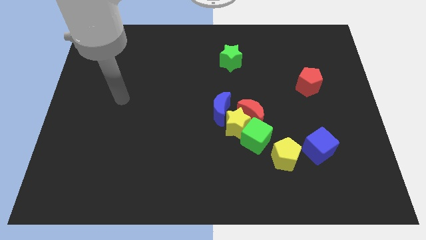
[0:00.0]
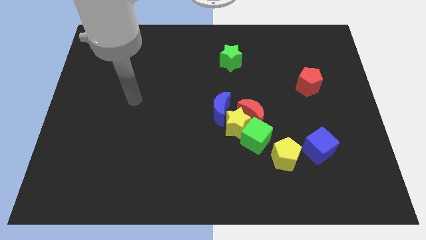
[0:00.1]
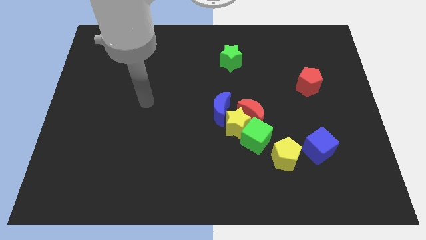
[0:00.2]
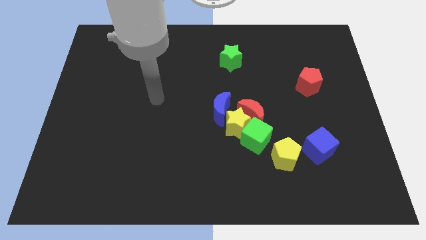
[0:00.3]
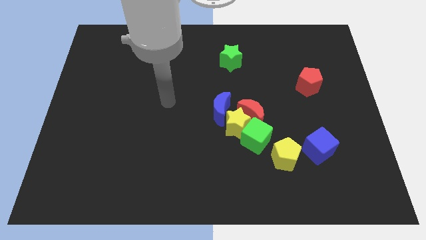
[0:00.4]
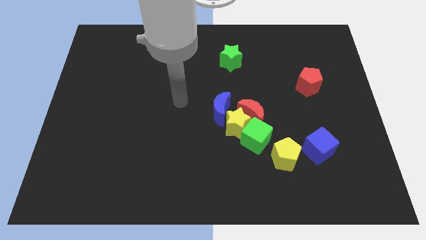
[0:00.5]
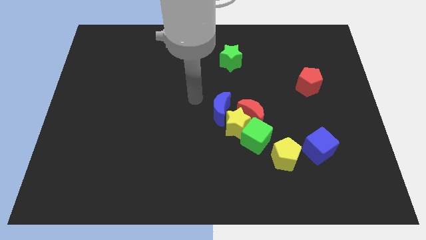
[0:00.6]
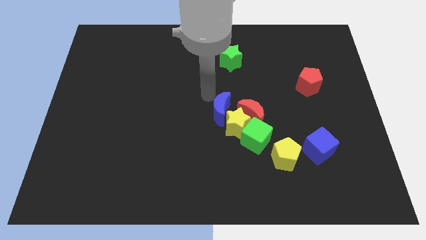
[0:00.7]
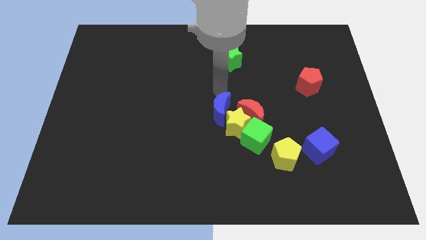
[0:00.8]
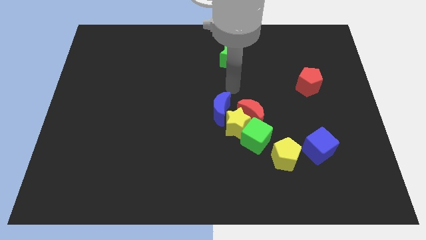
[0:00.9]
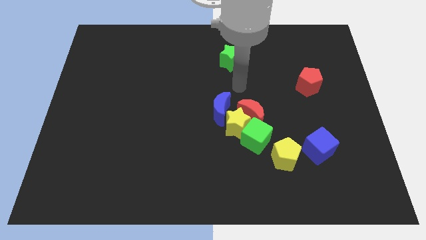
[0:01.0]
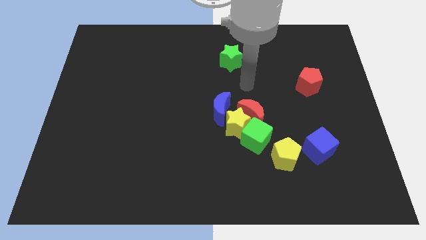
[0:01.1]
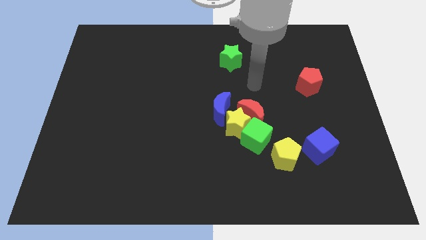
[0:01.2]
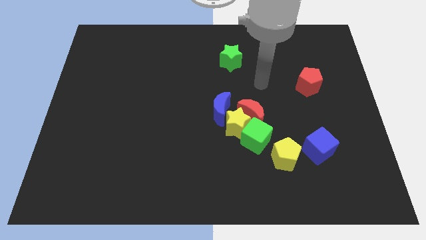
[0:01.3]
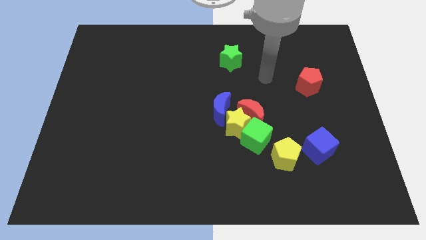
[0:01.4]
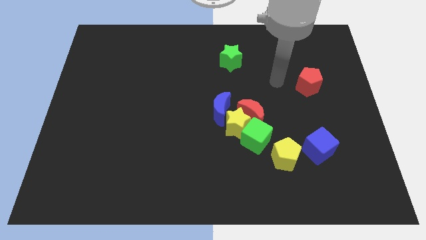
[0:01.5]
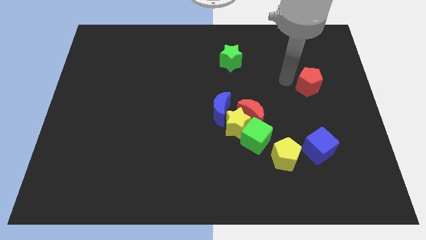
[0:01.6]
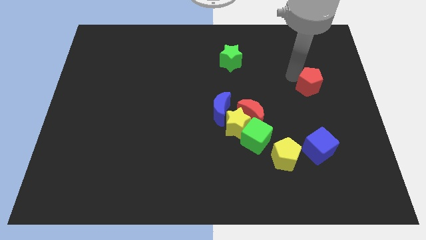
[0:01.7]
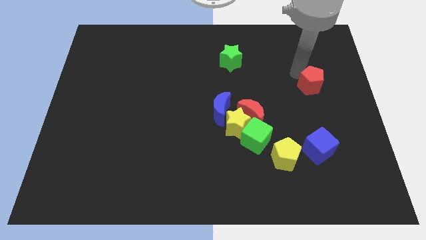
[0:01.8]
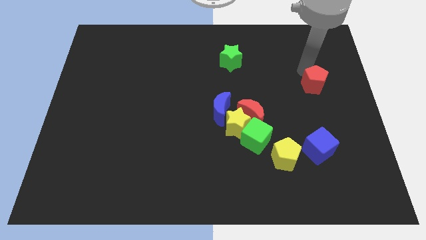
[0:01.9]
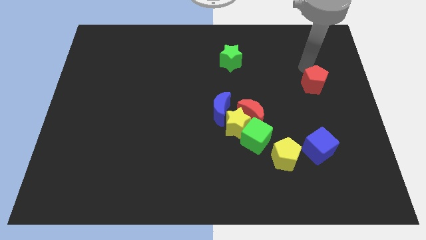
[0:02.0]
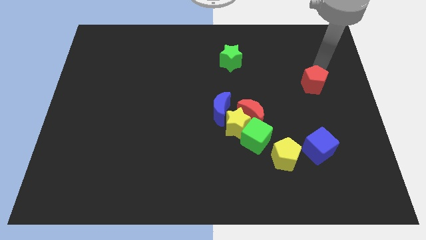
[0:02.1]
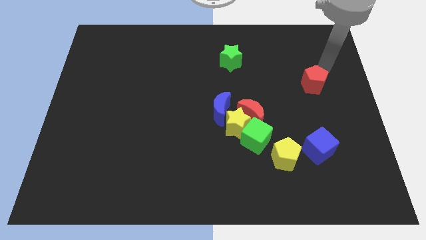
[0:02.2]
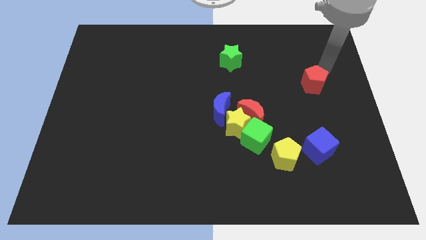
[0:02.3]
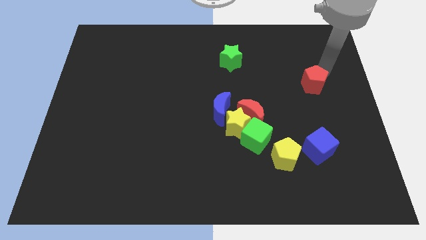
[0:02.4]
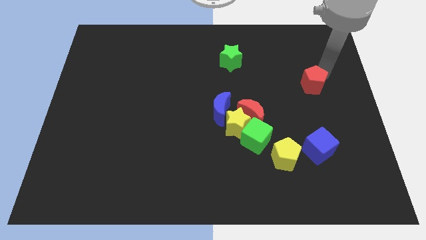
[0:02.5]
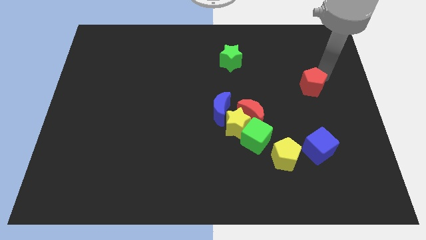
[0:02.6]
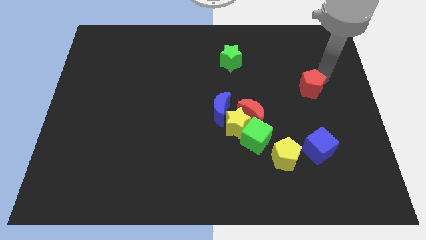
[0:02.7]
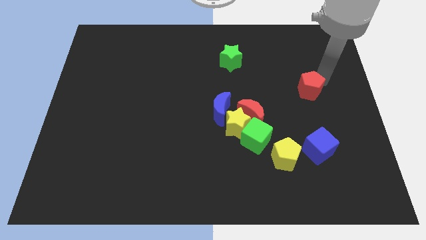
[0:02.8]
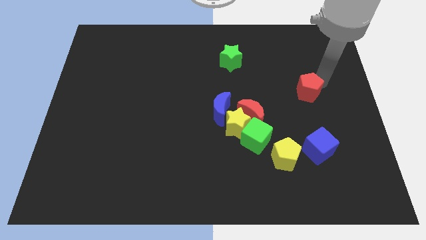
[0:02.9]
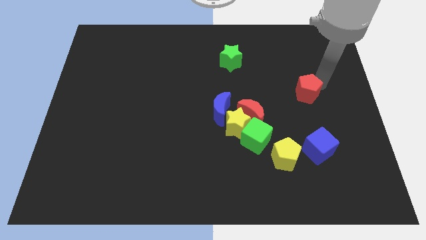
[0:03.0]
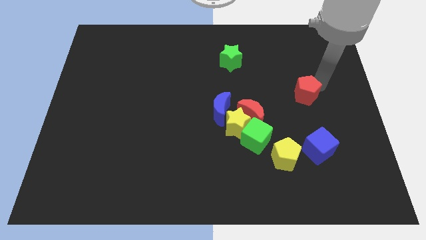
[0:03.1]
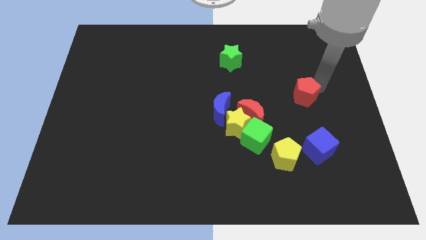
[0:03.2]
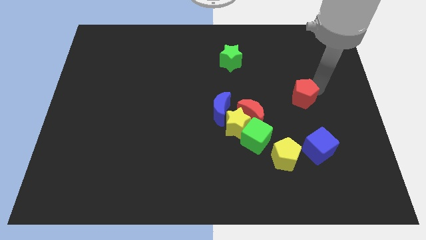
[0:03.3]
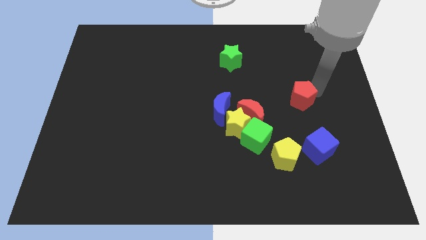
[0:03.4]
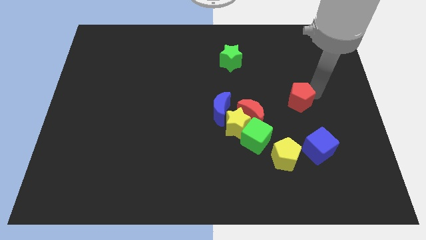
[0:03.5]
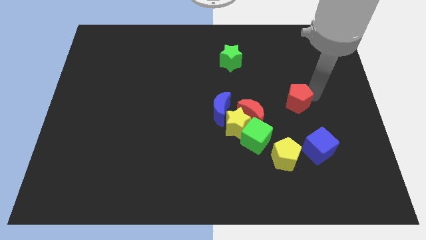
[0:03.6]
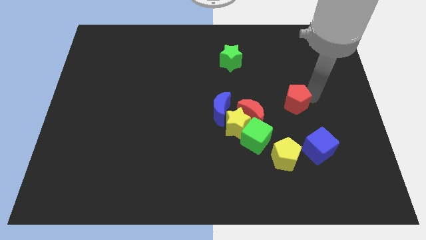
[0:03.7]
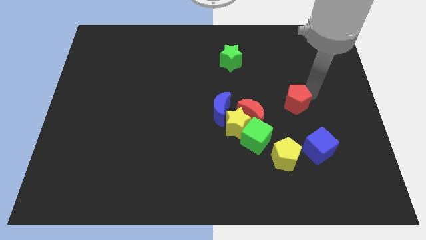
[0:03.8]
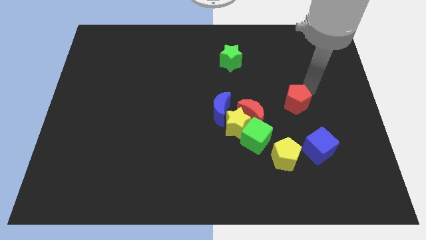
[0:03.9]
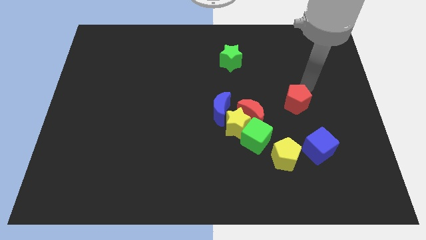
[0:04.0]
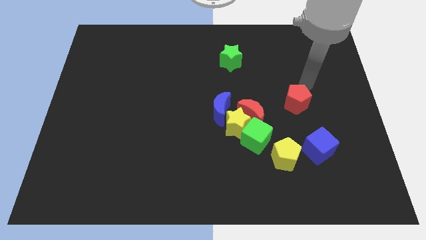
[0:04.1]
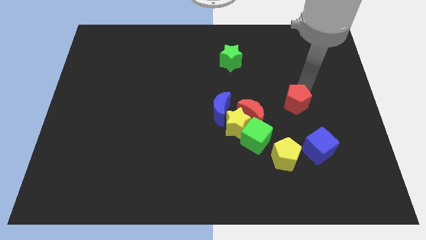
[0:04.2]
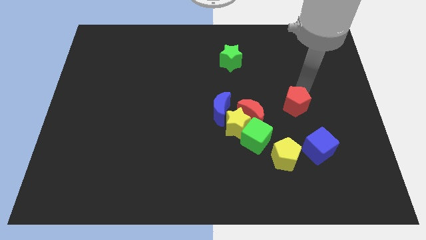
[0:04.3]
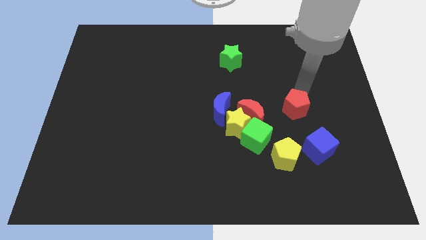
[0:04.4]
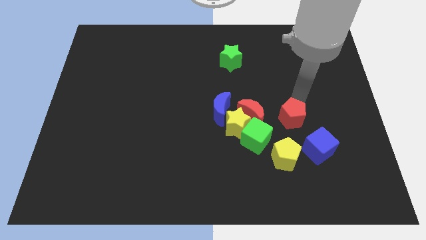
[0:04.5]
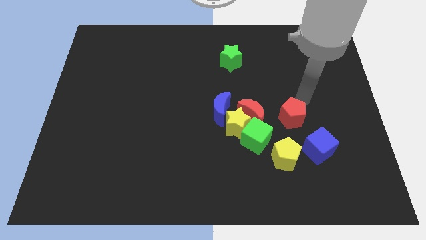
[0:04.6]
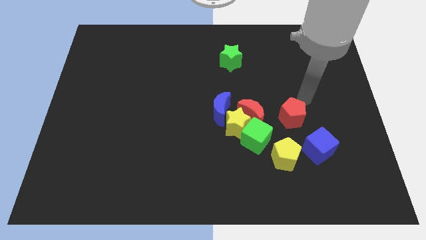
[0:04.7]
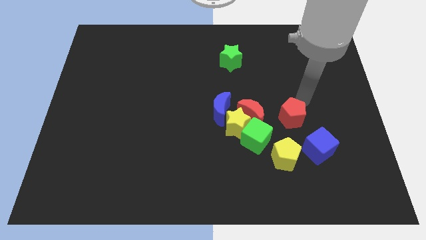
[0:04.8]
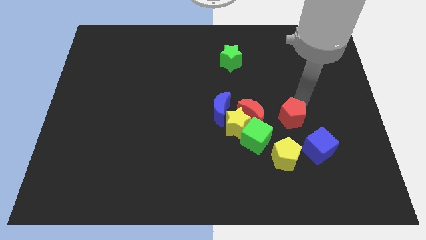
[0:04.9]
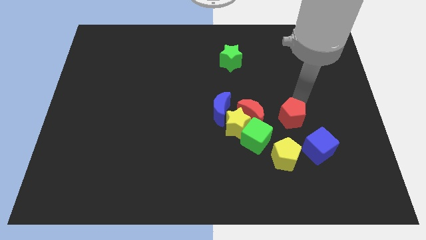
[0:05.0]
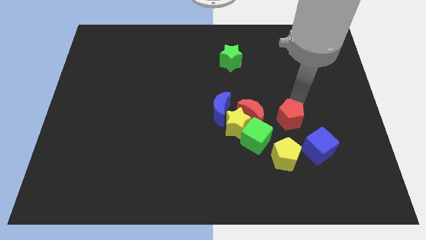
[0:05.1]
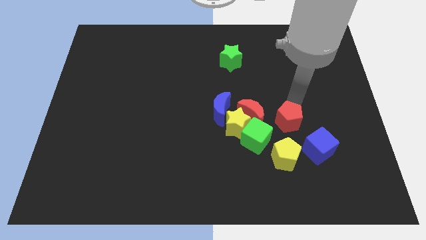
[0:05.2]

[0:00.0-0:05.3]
push the red pentagon diagonally down and to the right of the red moon

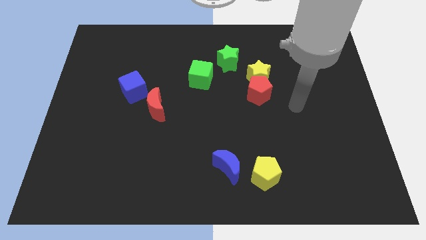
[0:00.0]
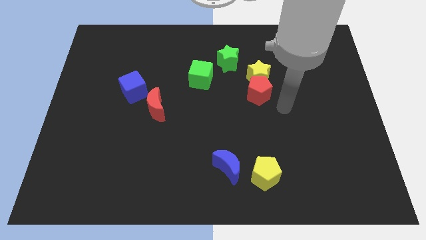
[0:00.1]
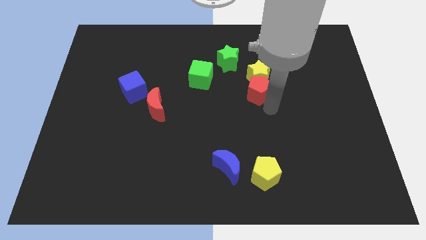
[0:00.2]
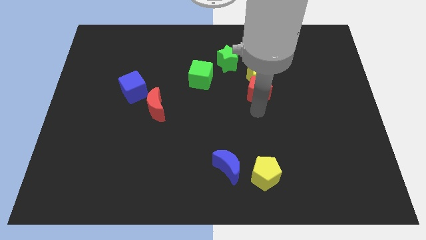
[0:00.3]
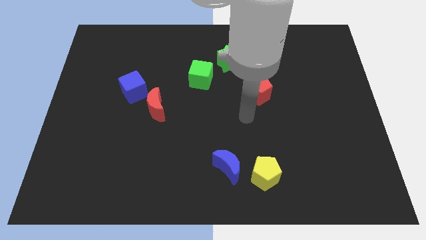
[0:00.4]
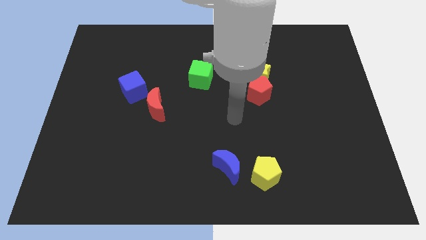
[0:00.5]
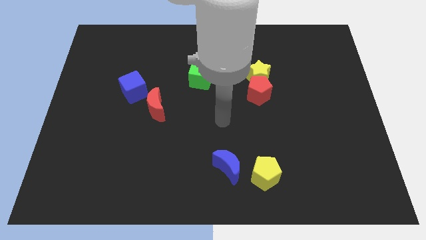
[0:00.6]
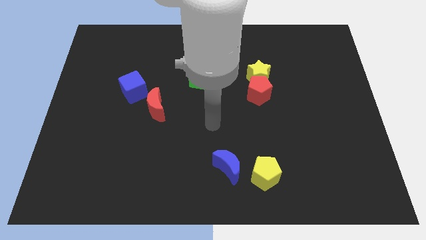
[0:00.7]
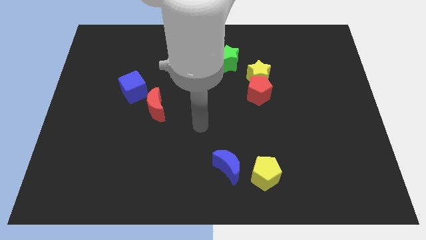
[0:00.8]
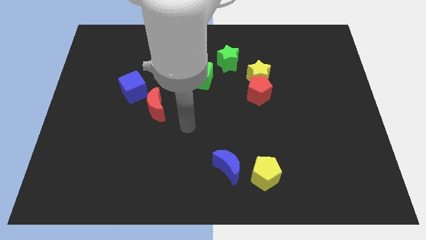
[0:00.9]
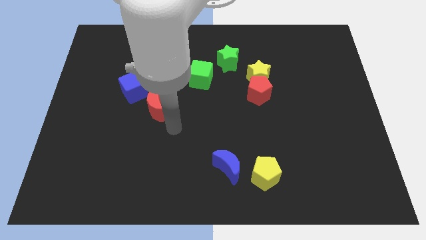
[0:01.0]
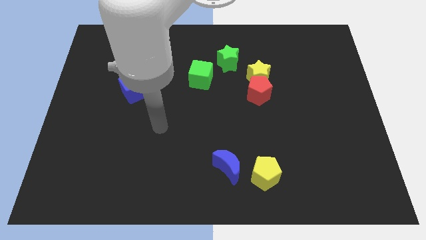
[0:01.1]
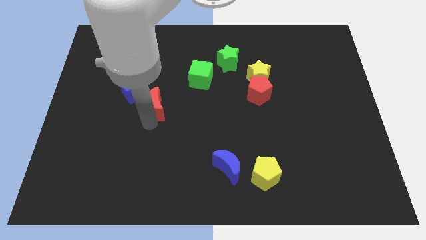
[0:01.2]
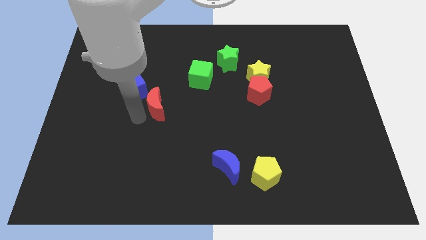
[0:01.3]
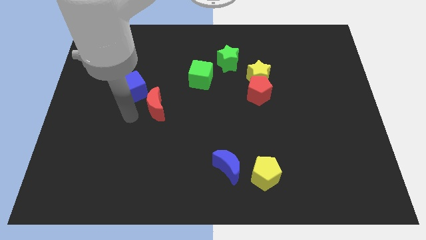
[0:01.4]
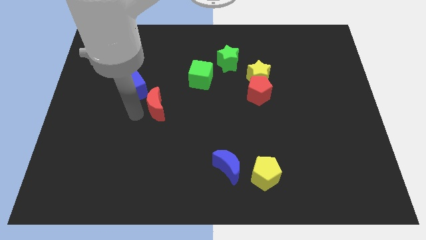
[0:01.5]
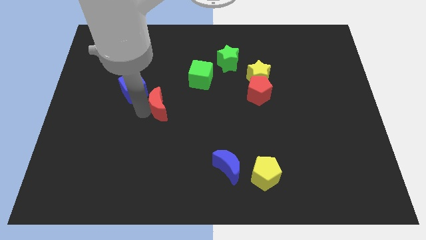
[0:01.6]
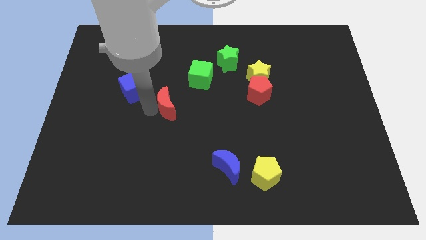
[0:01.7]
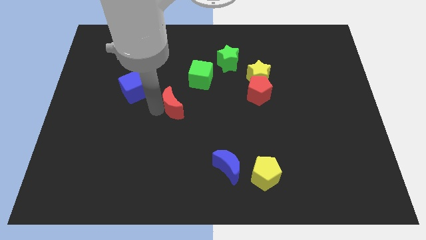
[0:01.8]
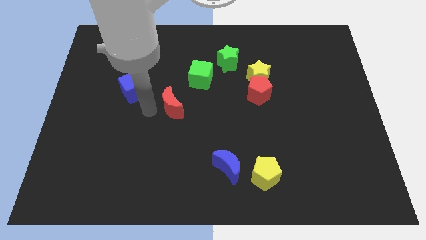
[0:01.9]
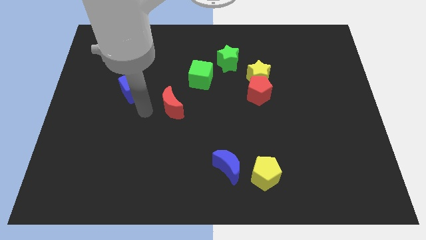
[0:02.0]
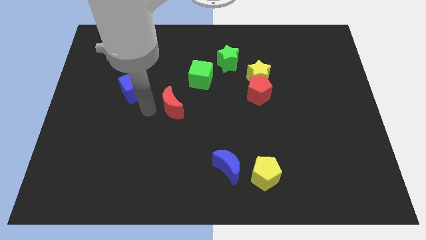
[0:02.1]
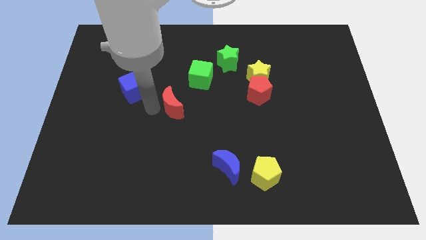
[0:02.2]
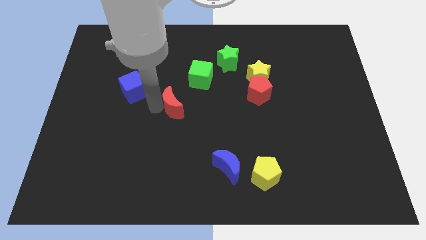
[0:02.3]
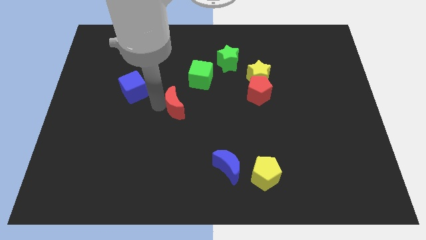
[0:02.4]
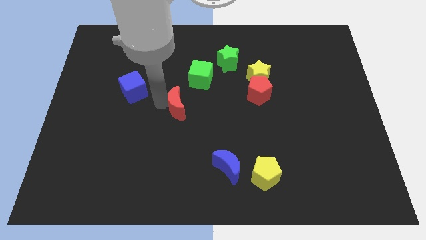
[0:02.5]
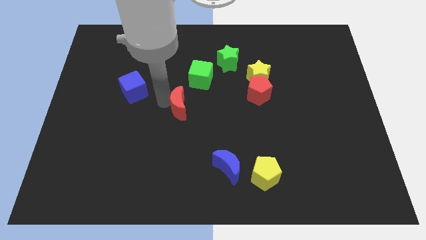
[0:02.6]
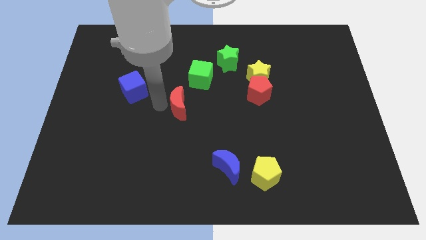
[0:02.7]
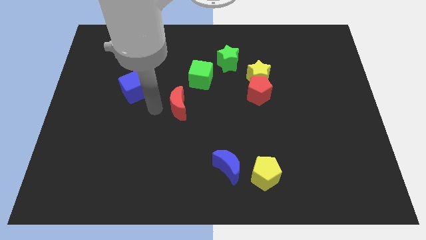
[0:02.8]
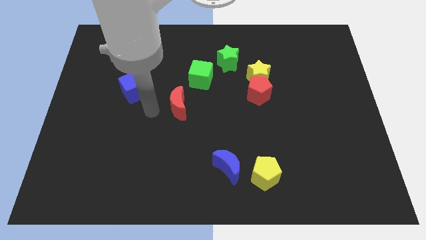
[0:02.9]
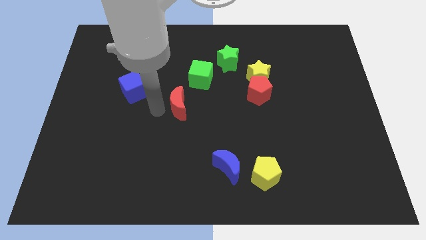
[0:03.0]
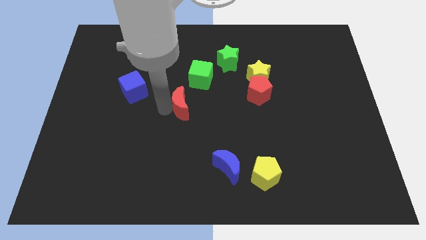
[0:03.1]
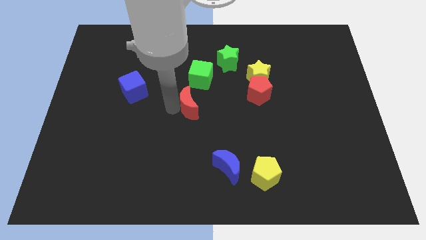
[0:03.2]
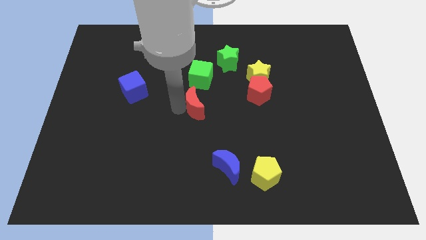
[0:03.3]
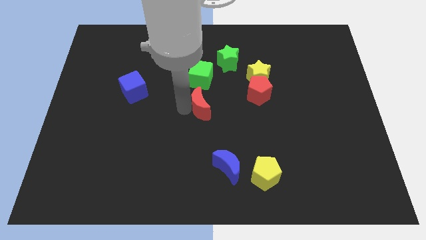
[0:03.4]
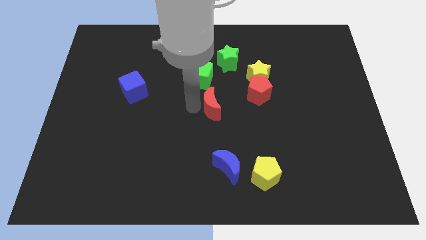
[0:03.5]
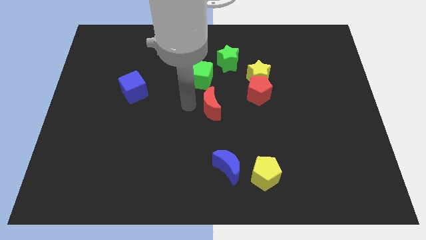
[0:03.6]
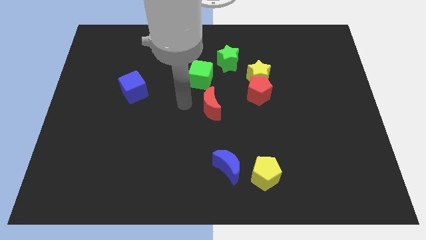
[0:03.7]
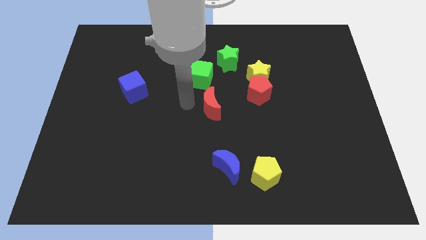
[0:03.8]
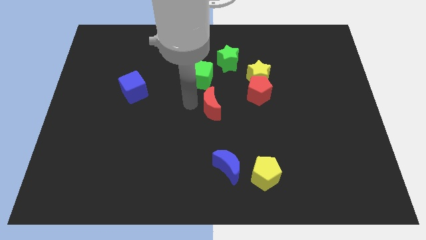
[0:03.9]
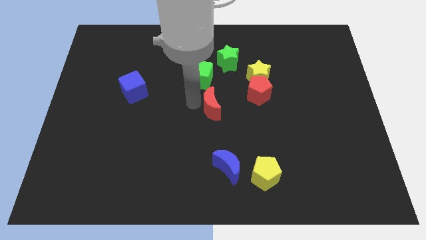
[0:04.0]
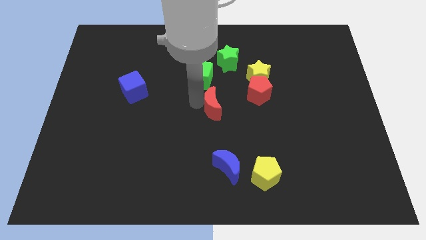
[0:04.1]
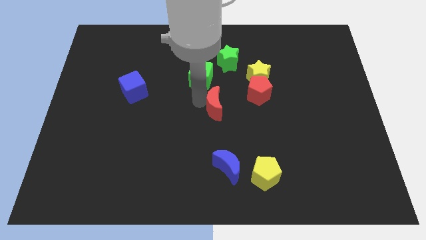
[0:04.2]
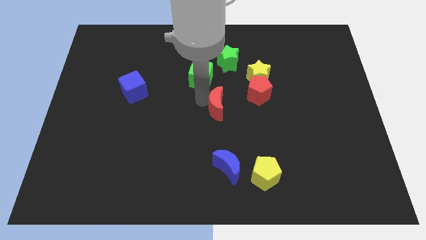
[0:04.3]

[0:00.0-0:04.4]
move the red moon to the bottom left side of the red pentagon
